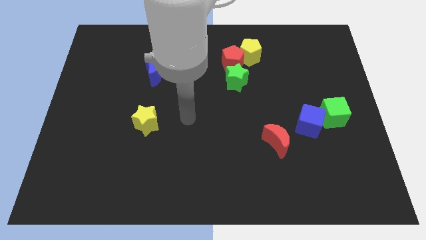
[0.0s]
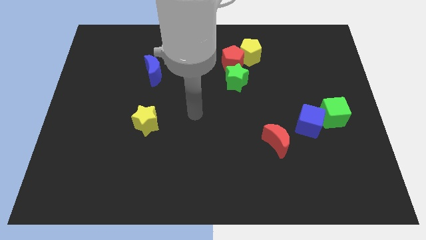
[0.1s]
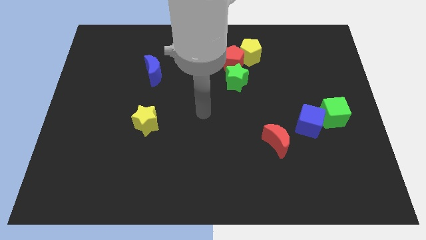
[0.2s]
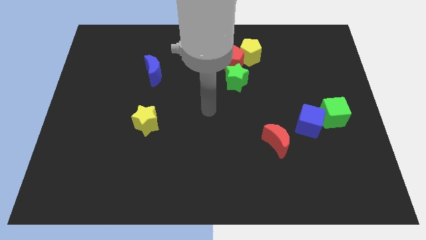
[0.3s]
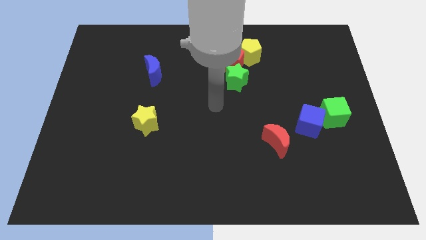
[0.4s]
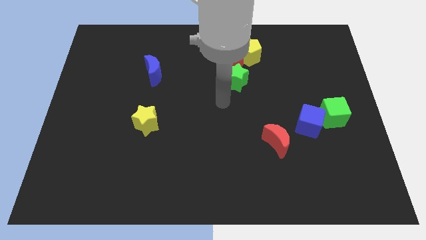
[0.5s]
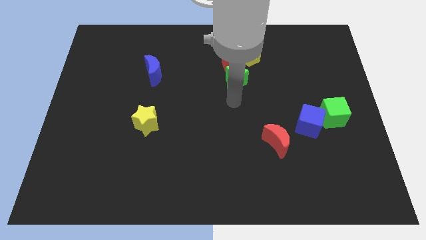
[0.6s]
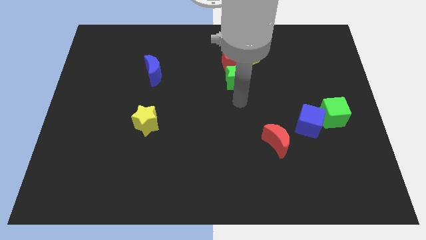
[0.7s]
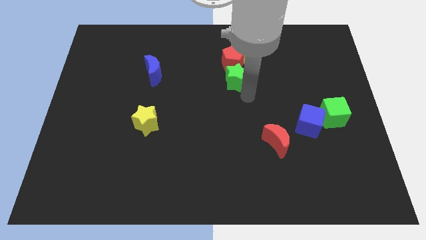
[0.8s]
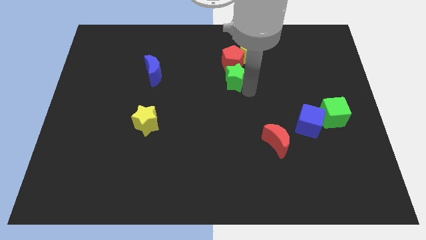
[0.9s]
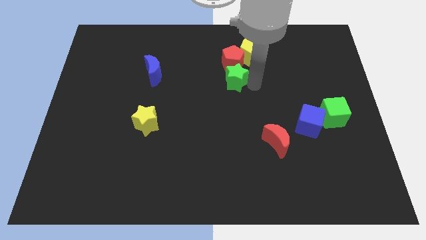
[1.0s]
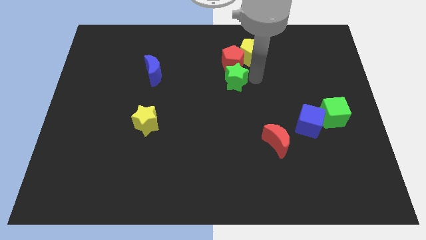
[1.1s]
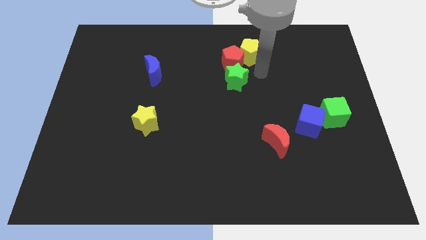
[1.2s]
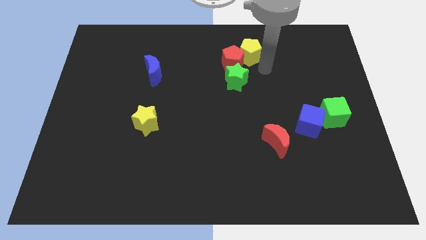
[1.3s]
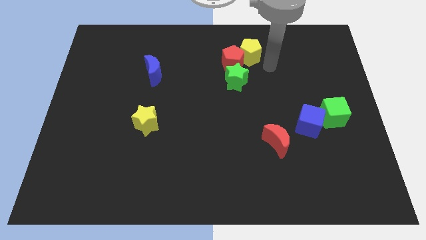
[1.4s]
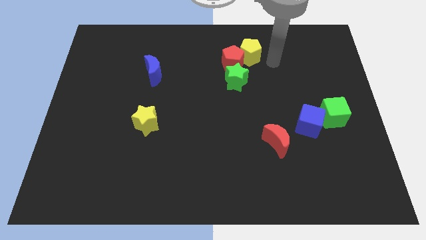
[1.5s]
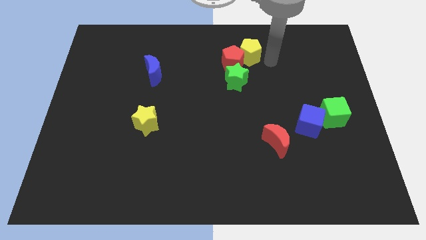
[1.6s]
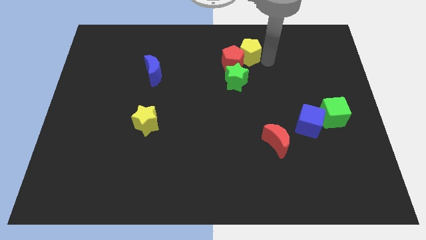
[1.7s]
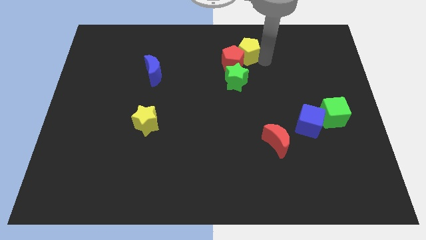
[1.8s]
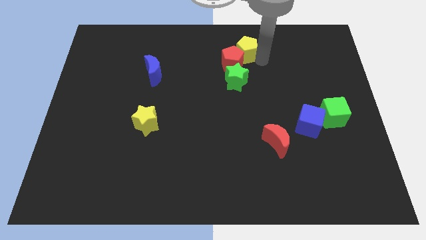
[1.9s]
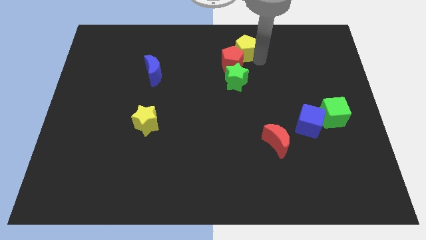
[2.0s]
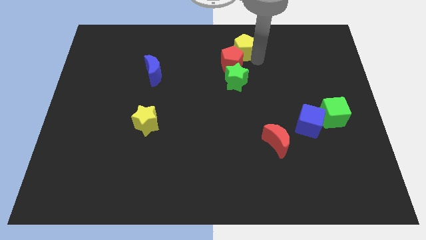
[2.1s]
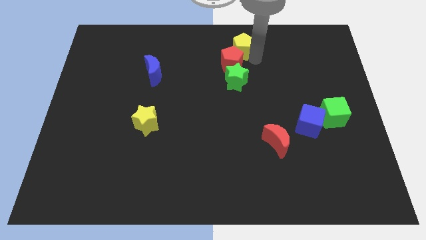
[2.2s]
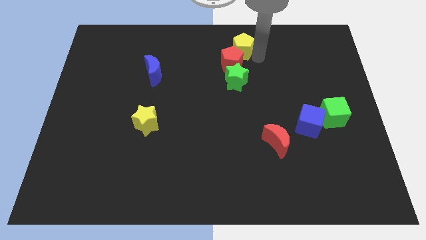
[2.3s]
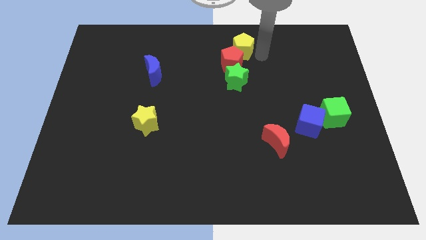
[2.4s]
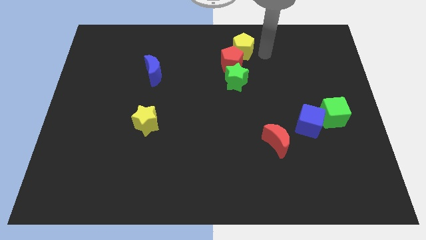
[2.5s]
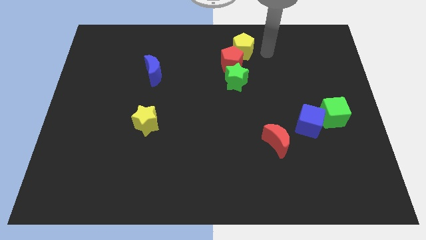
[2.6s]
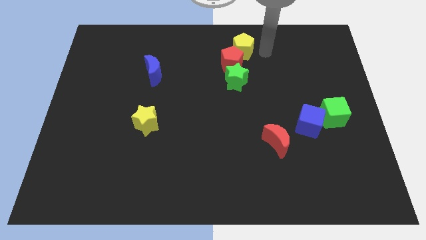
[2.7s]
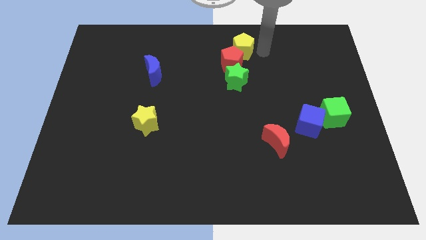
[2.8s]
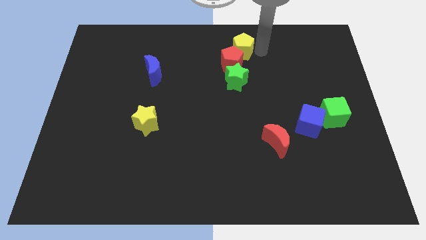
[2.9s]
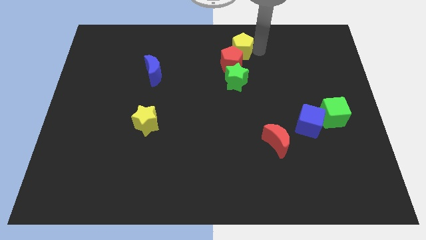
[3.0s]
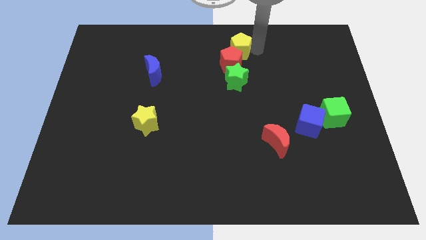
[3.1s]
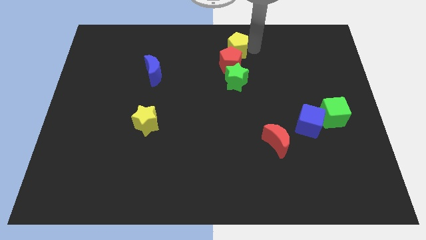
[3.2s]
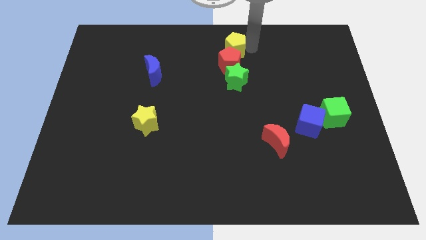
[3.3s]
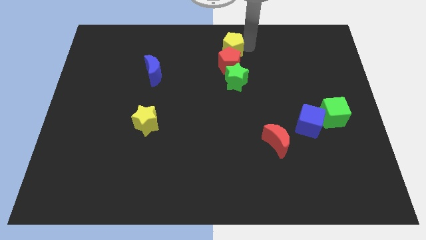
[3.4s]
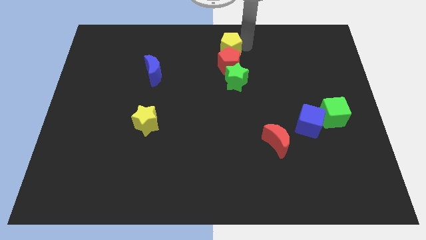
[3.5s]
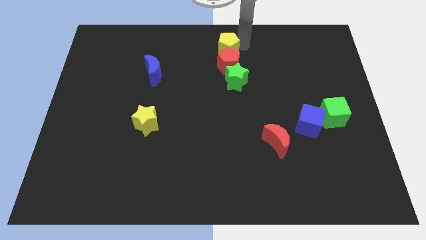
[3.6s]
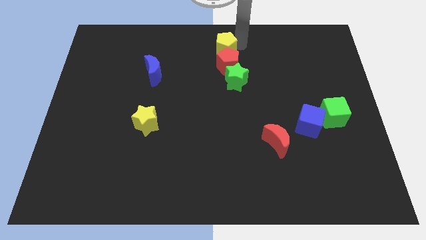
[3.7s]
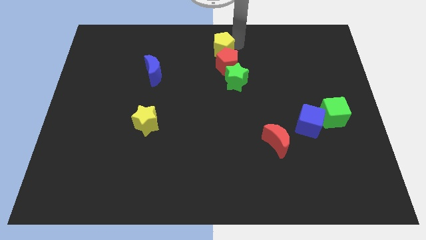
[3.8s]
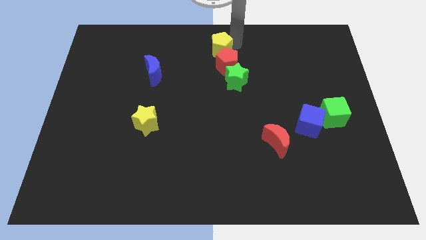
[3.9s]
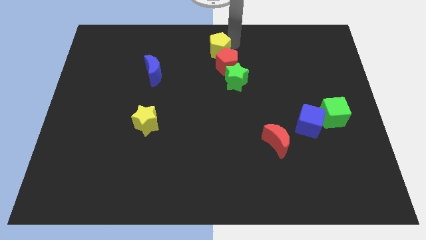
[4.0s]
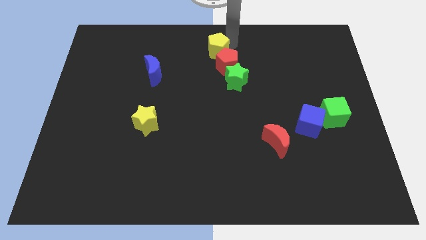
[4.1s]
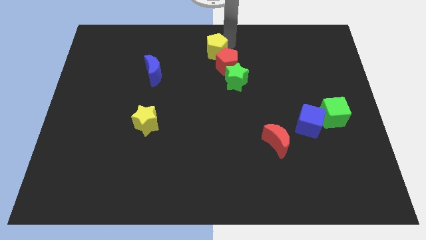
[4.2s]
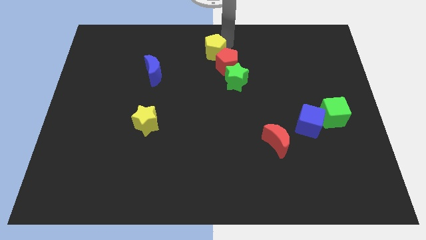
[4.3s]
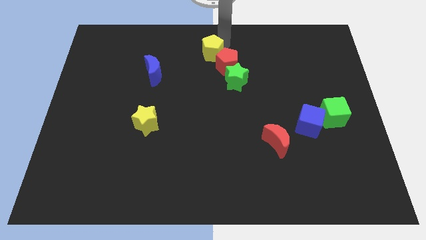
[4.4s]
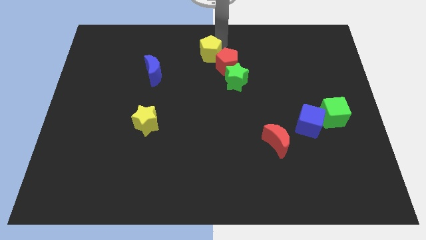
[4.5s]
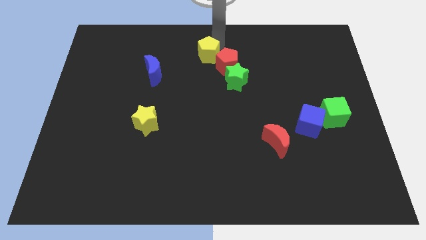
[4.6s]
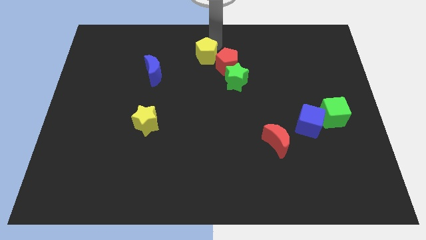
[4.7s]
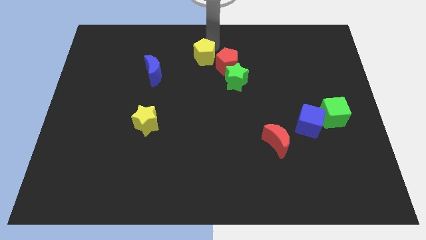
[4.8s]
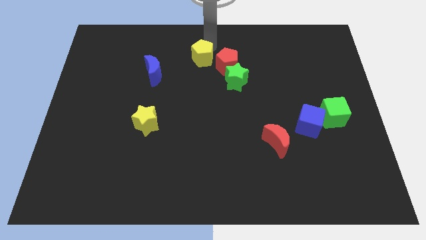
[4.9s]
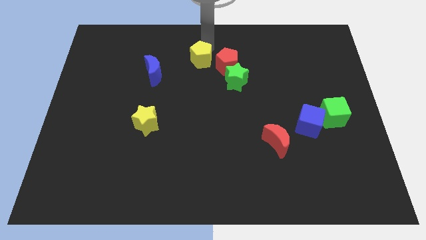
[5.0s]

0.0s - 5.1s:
slide the yellow pentagon a little downwards and to the left

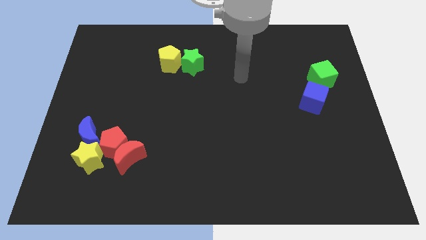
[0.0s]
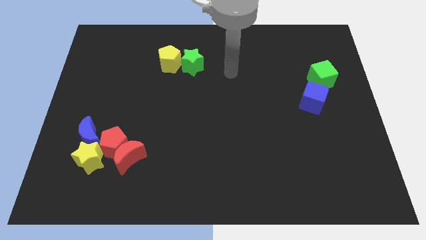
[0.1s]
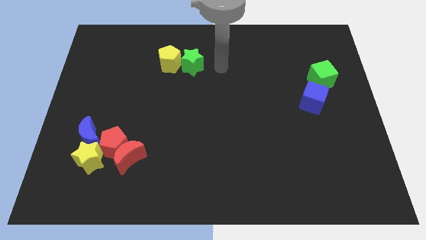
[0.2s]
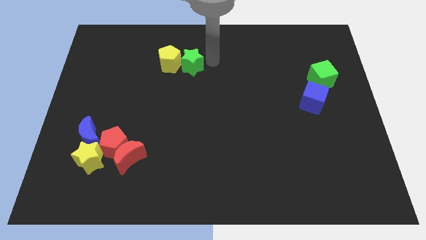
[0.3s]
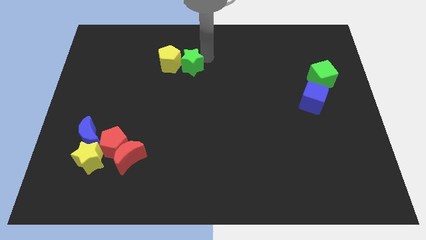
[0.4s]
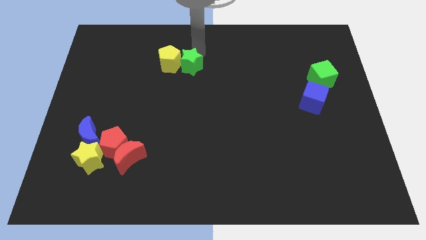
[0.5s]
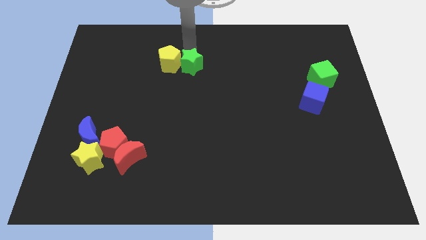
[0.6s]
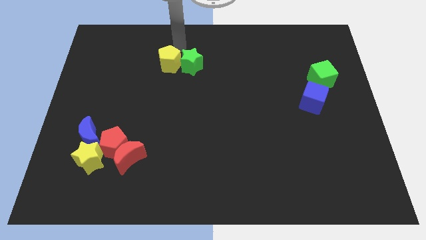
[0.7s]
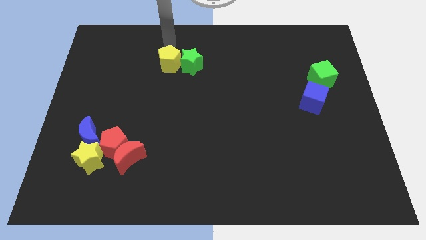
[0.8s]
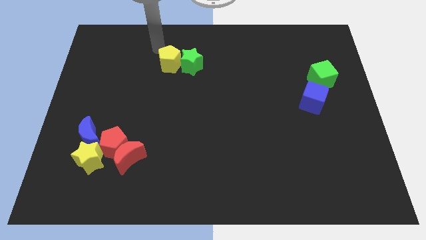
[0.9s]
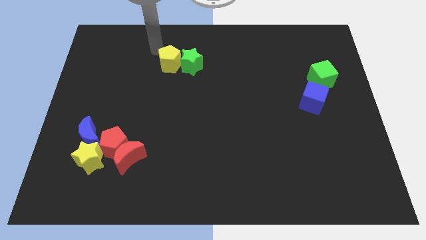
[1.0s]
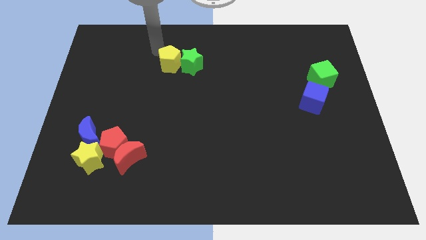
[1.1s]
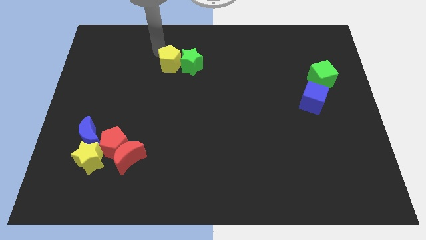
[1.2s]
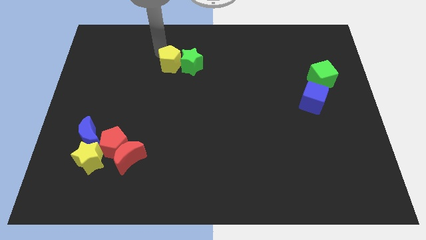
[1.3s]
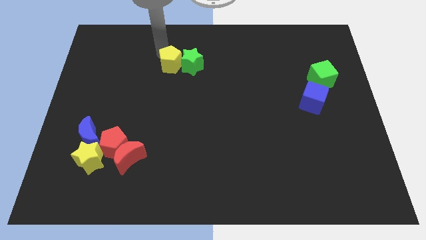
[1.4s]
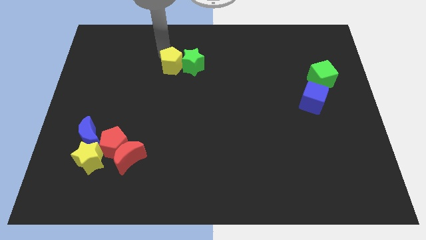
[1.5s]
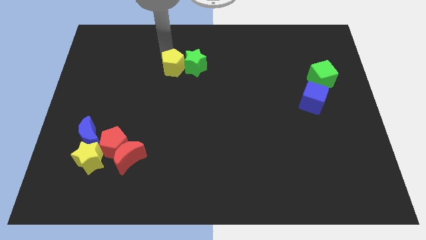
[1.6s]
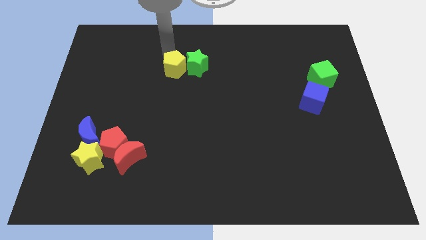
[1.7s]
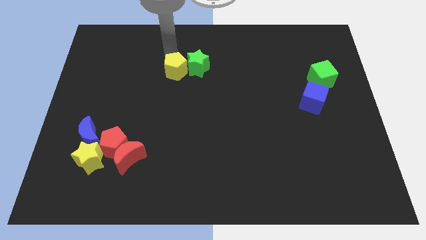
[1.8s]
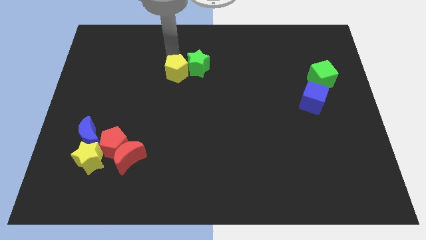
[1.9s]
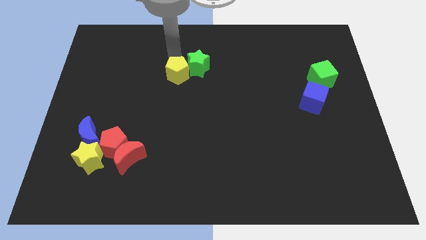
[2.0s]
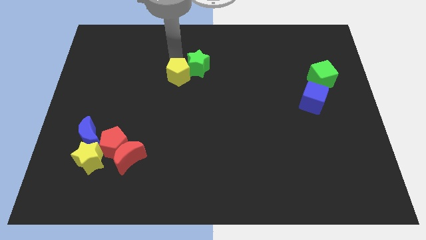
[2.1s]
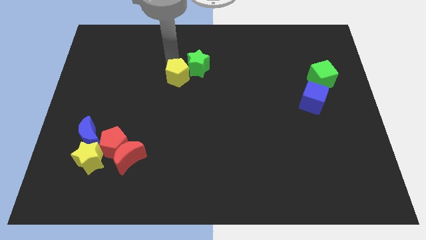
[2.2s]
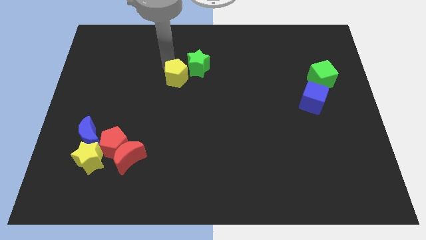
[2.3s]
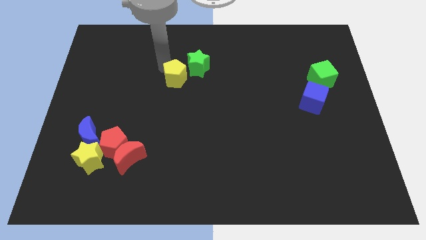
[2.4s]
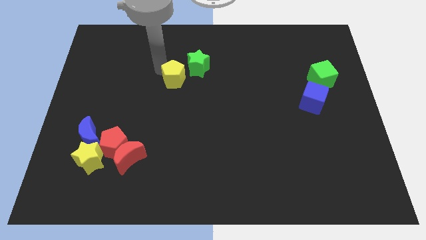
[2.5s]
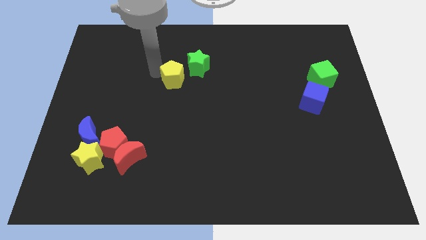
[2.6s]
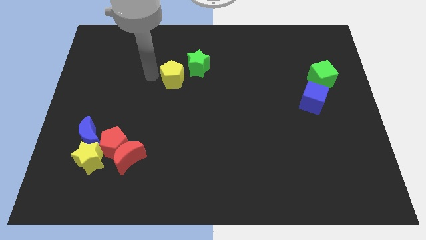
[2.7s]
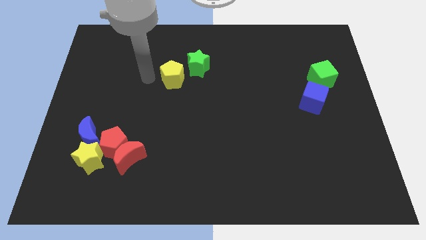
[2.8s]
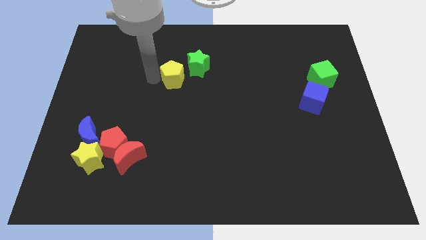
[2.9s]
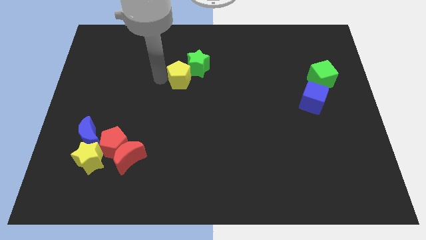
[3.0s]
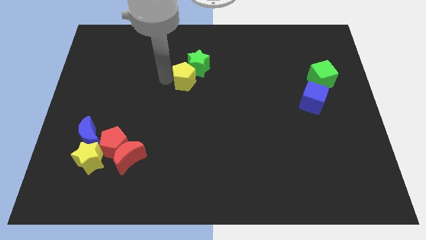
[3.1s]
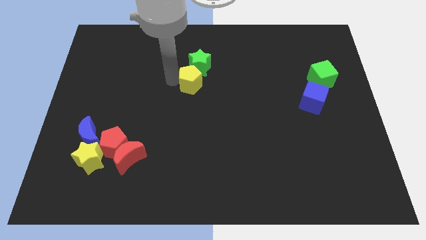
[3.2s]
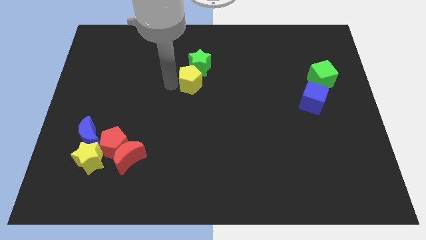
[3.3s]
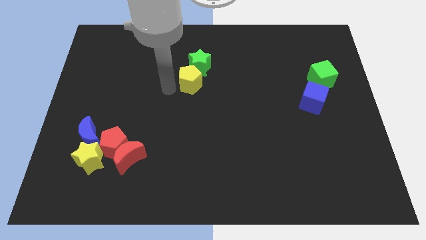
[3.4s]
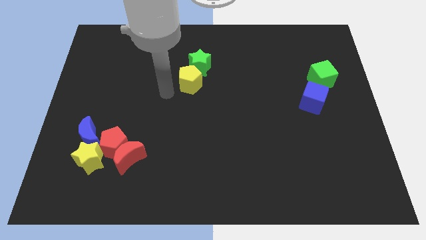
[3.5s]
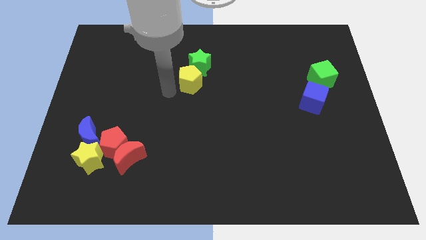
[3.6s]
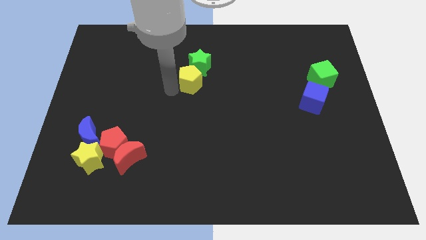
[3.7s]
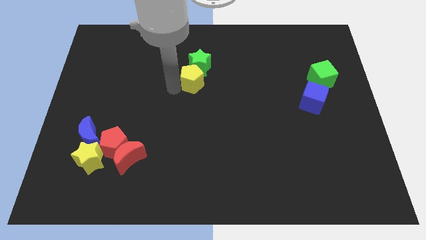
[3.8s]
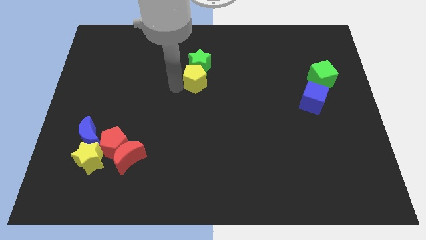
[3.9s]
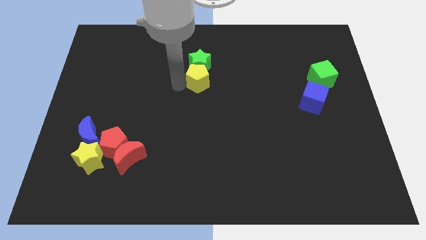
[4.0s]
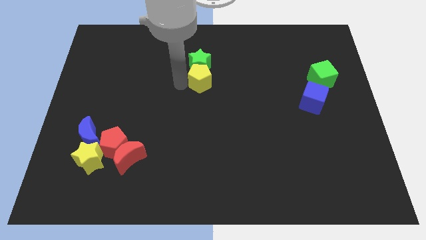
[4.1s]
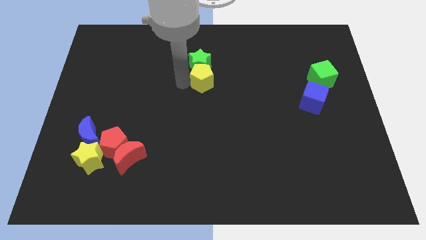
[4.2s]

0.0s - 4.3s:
slightly move the yellow pentagon right
